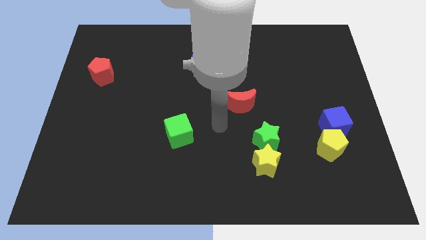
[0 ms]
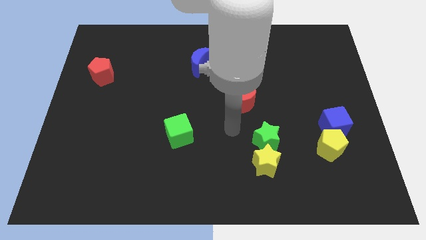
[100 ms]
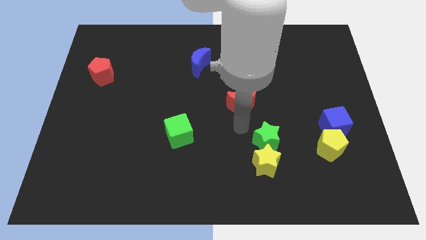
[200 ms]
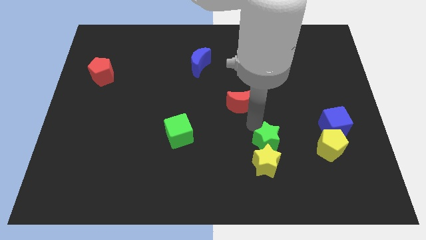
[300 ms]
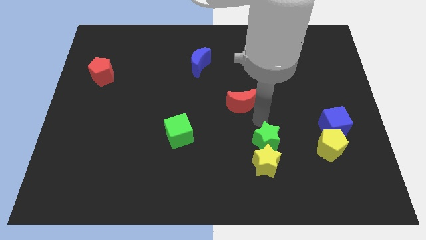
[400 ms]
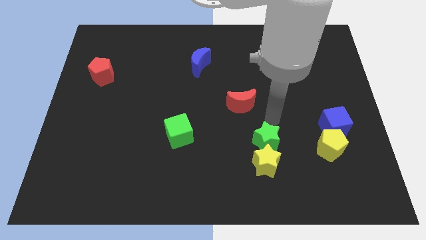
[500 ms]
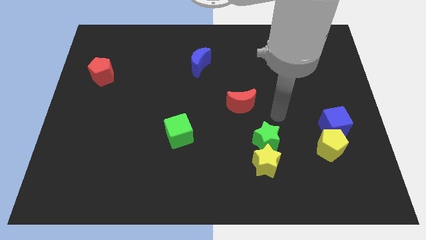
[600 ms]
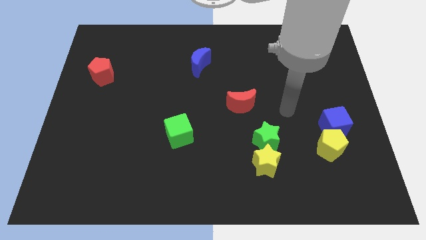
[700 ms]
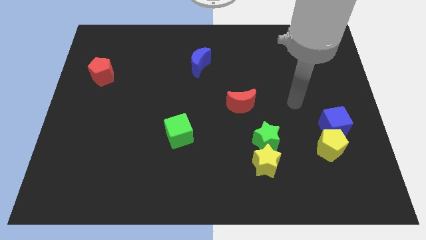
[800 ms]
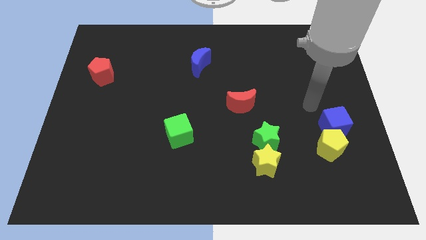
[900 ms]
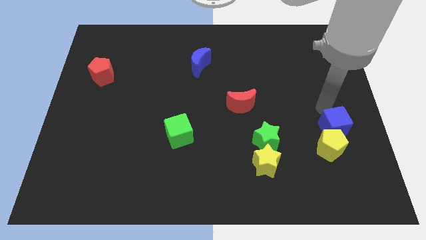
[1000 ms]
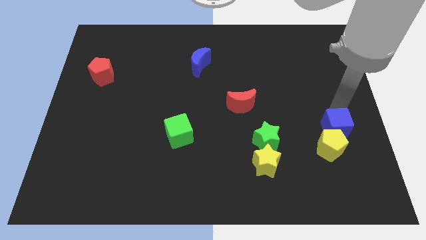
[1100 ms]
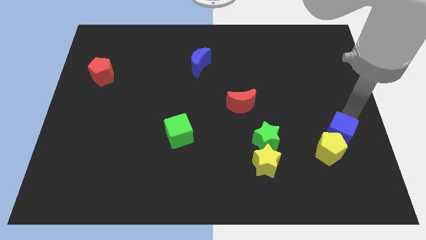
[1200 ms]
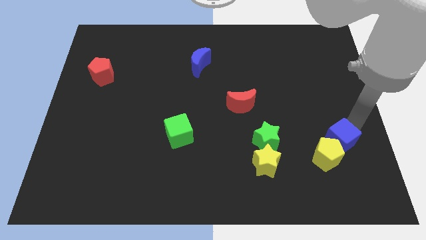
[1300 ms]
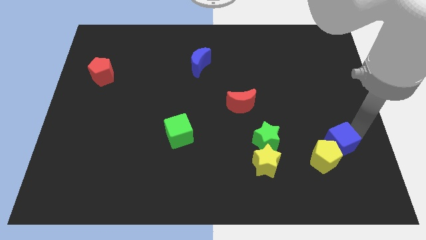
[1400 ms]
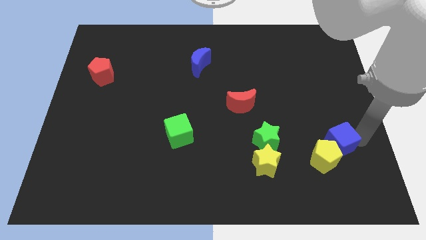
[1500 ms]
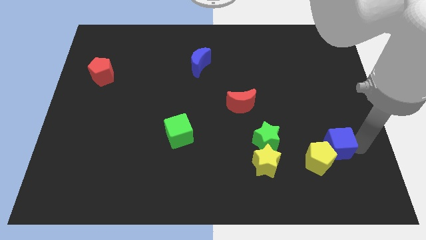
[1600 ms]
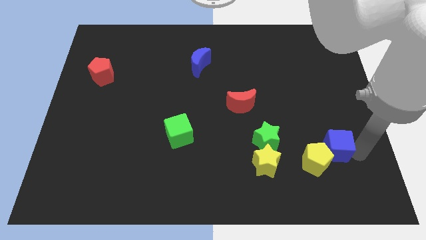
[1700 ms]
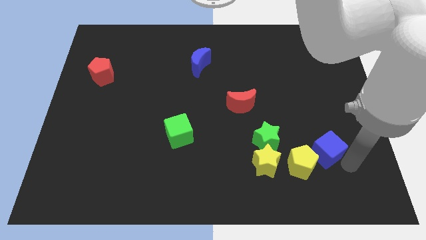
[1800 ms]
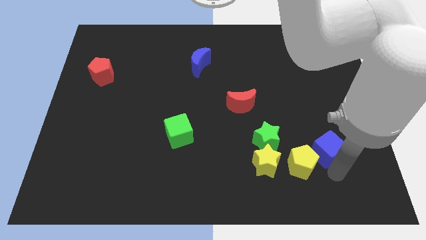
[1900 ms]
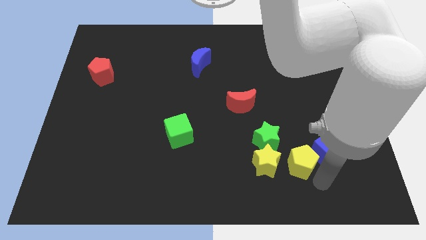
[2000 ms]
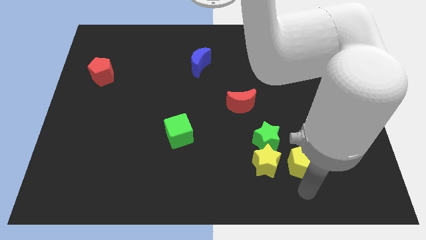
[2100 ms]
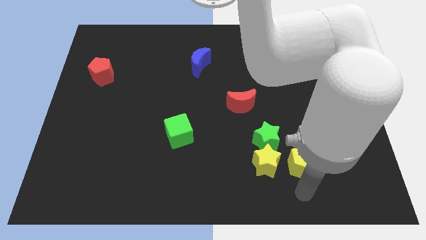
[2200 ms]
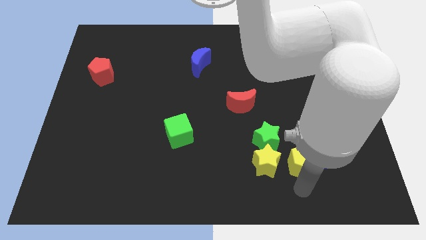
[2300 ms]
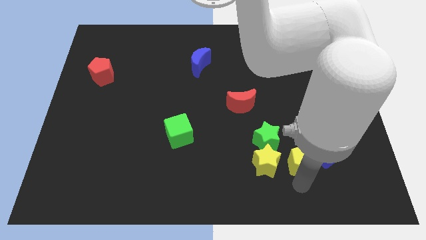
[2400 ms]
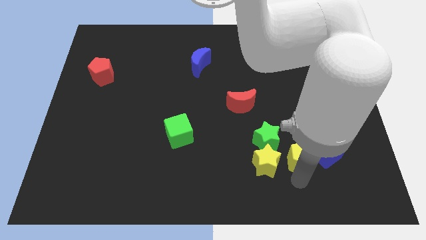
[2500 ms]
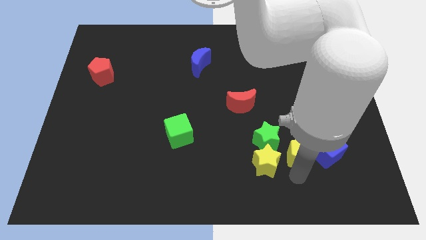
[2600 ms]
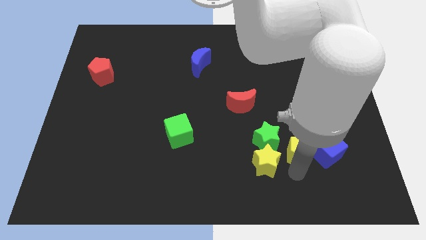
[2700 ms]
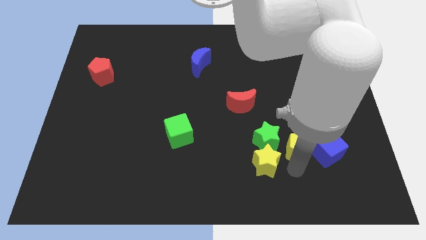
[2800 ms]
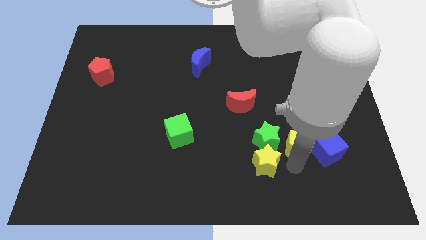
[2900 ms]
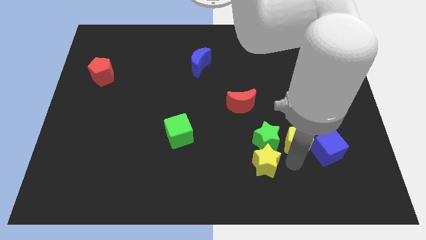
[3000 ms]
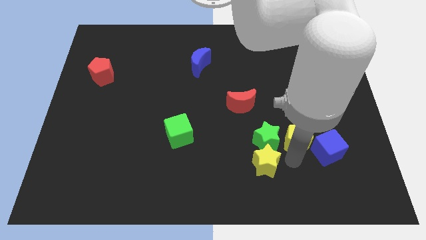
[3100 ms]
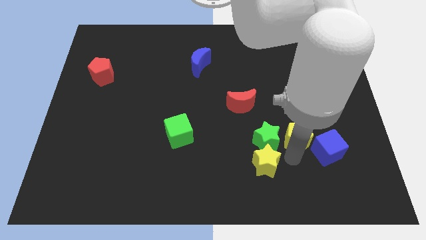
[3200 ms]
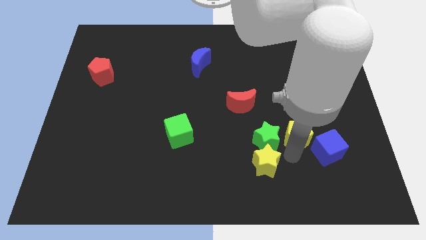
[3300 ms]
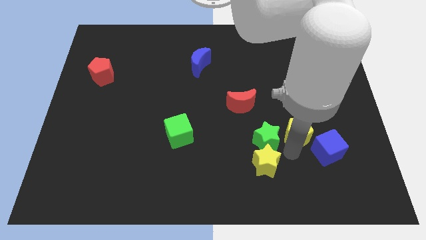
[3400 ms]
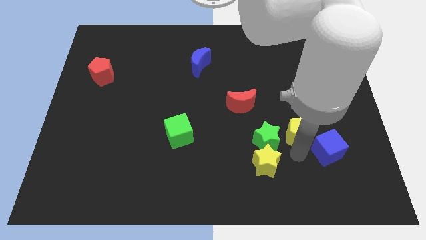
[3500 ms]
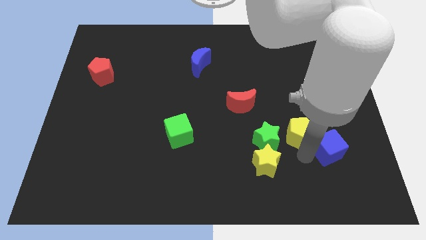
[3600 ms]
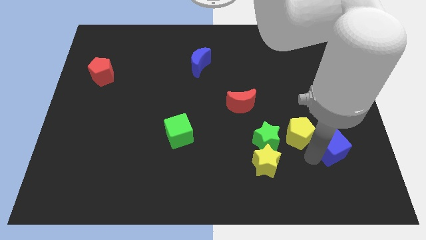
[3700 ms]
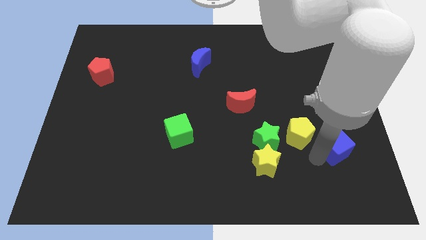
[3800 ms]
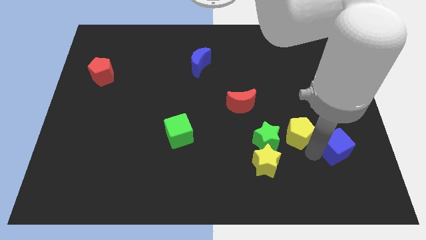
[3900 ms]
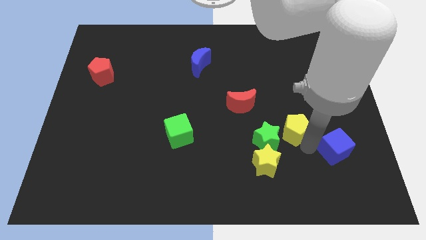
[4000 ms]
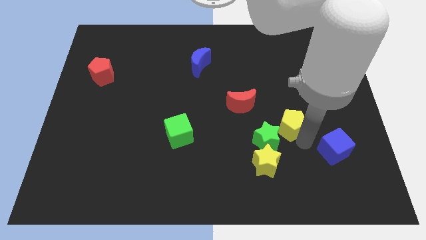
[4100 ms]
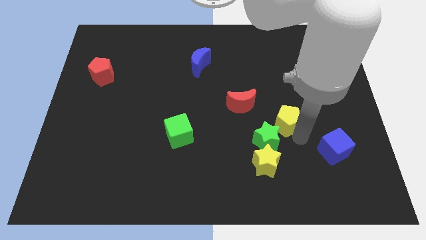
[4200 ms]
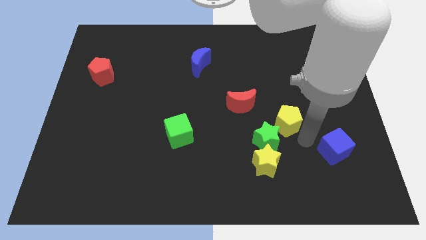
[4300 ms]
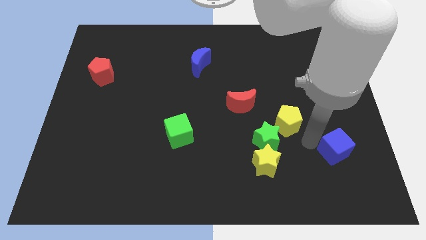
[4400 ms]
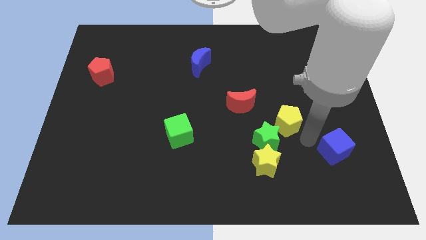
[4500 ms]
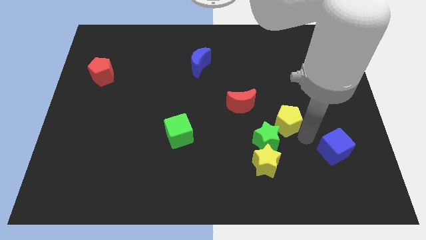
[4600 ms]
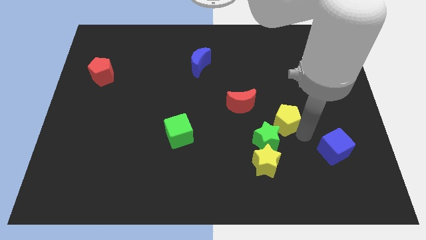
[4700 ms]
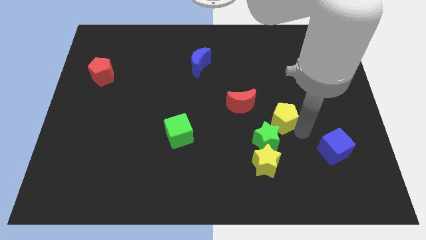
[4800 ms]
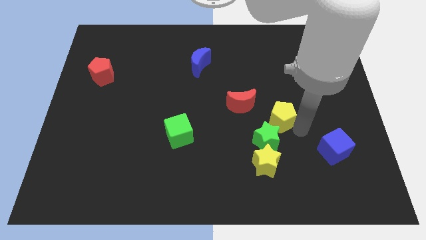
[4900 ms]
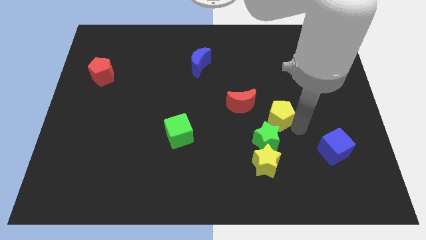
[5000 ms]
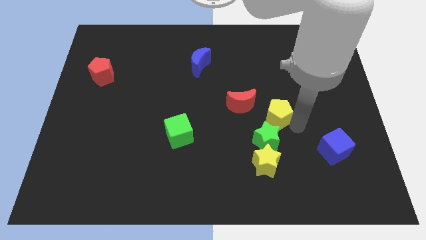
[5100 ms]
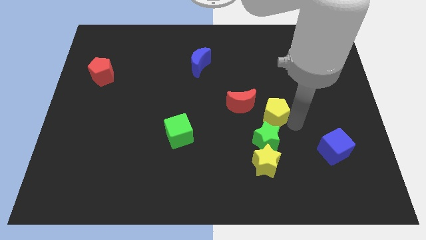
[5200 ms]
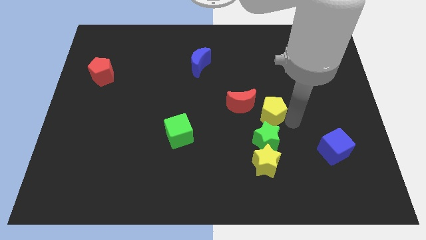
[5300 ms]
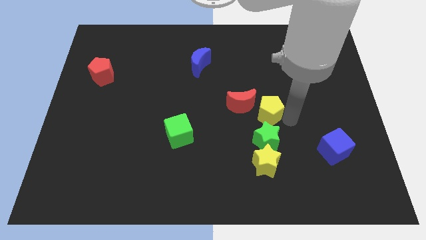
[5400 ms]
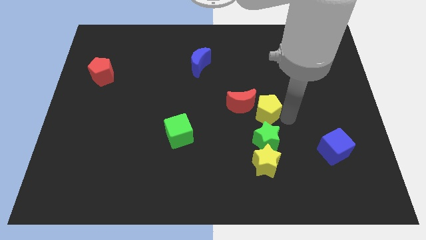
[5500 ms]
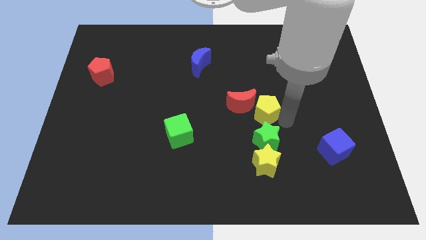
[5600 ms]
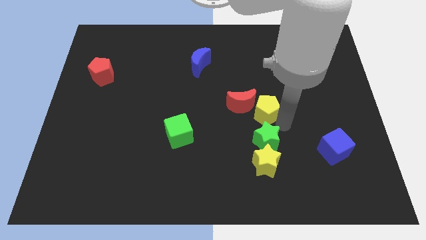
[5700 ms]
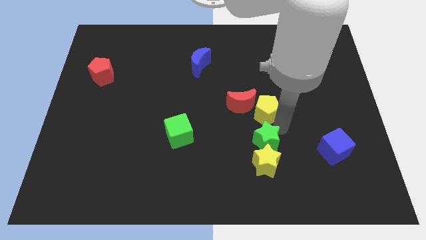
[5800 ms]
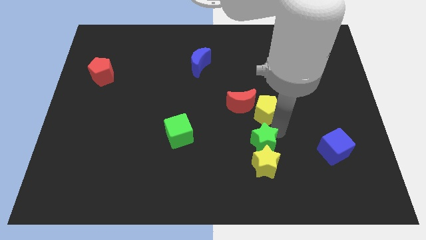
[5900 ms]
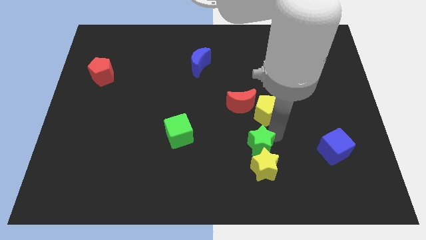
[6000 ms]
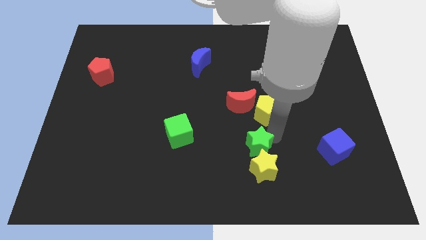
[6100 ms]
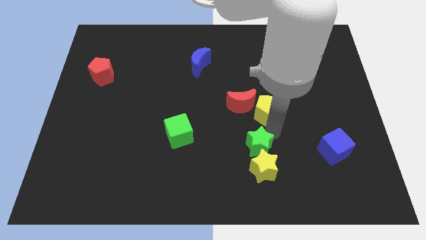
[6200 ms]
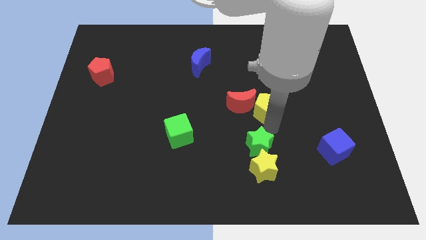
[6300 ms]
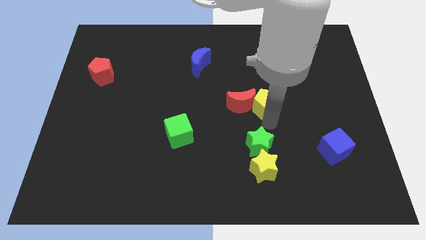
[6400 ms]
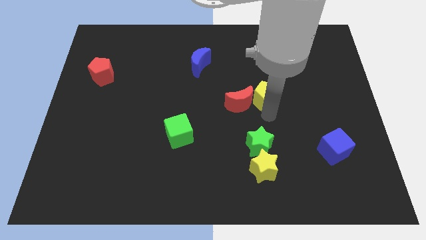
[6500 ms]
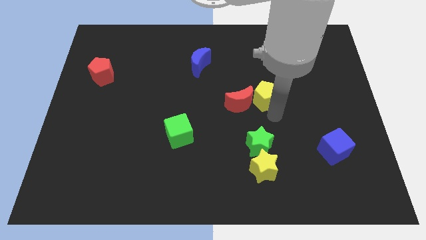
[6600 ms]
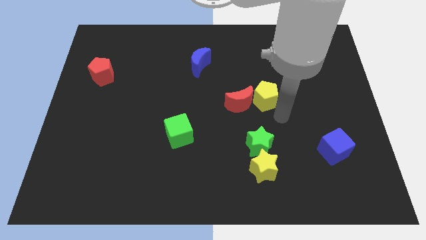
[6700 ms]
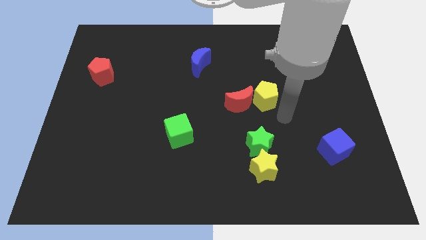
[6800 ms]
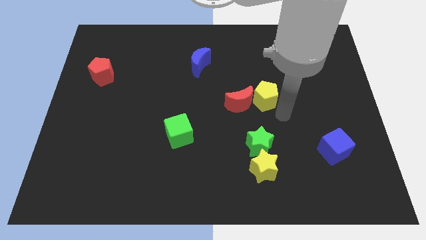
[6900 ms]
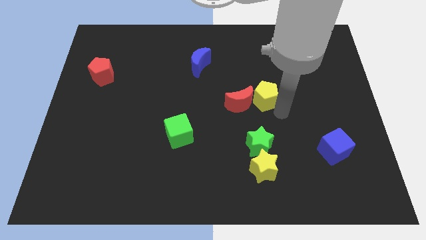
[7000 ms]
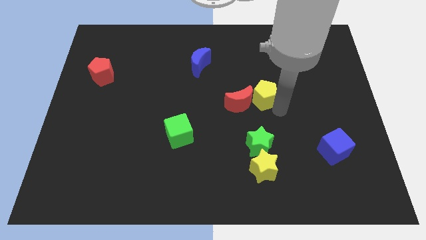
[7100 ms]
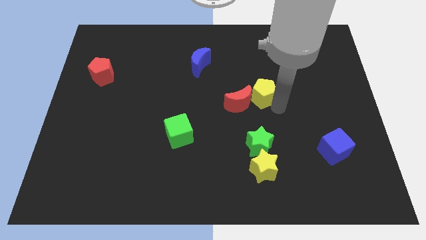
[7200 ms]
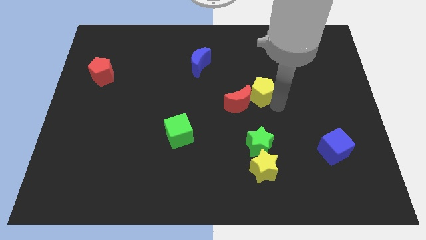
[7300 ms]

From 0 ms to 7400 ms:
push the yellow pentagon up and then left

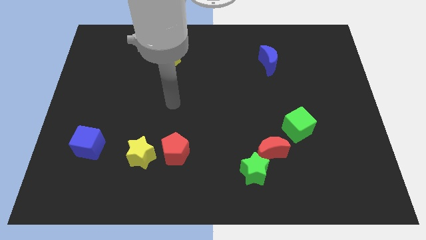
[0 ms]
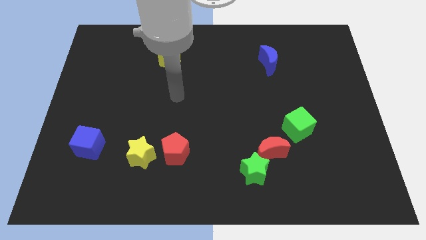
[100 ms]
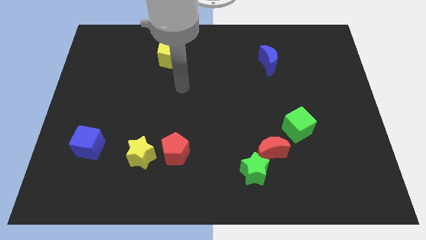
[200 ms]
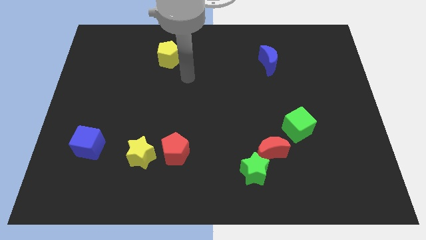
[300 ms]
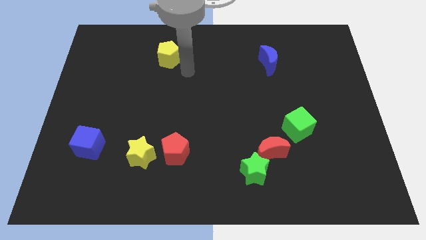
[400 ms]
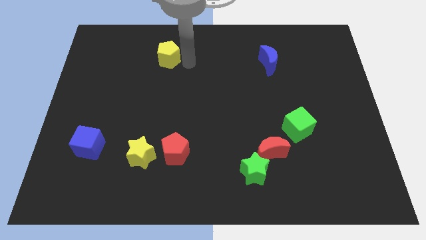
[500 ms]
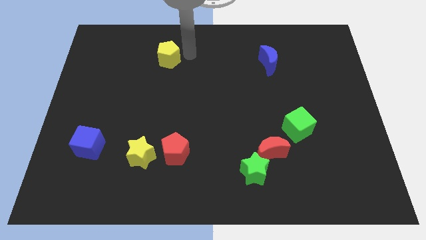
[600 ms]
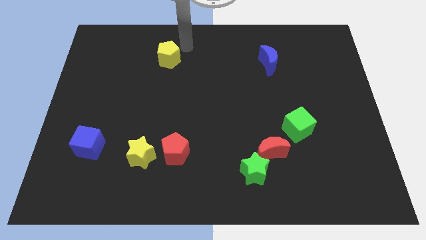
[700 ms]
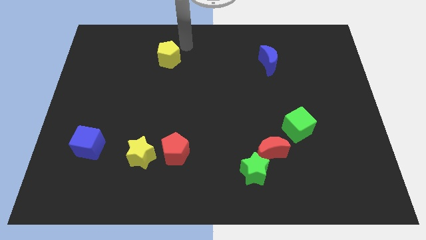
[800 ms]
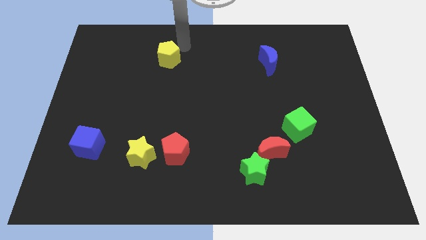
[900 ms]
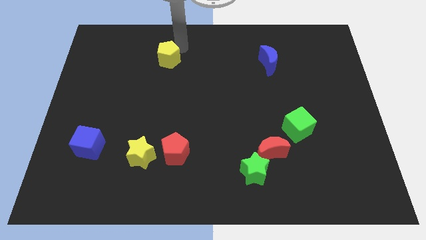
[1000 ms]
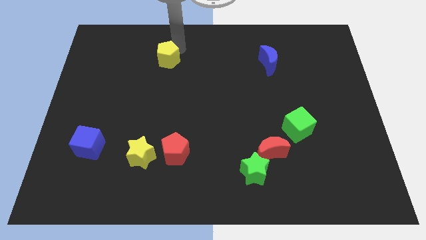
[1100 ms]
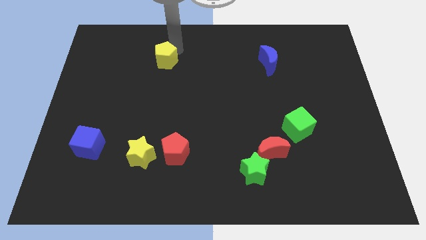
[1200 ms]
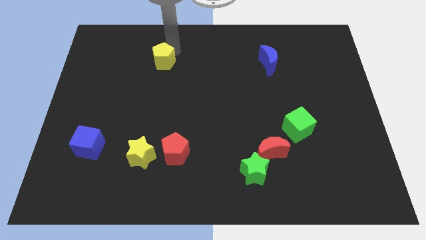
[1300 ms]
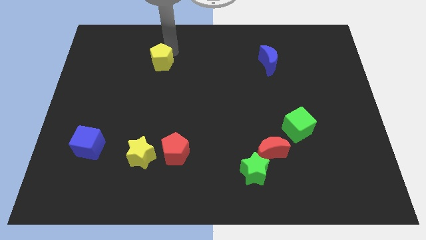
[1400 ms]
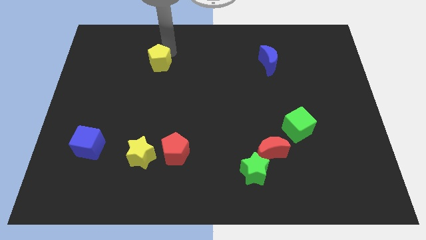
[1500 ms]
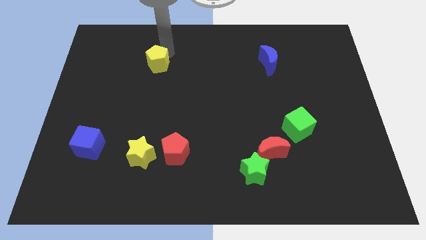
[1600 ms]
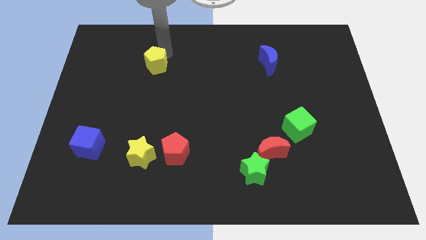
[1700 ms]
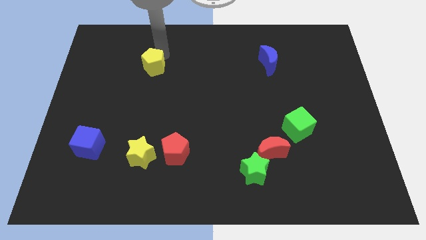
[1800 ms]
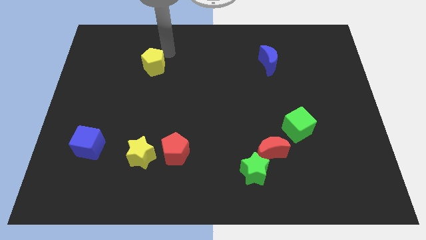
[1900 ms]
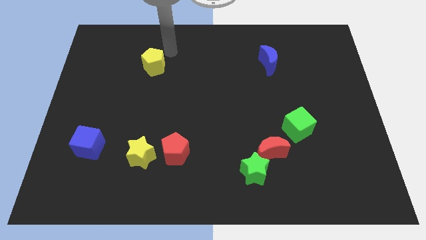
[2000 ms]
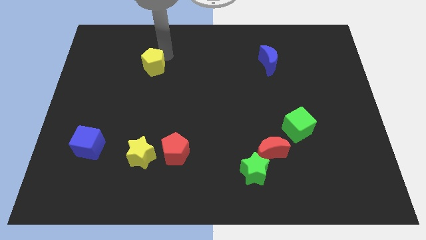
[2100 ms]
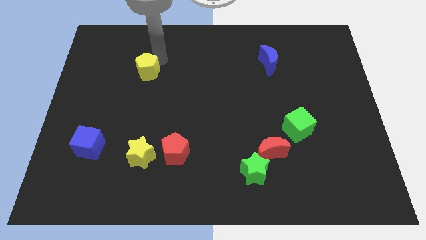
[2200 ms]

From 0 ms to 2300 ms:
push the yellow pentagon downwards and to the left a bit
